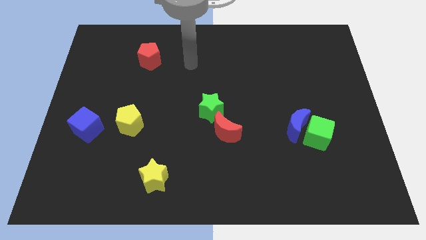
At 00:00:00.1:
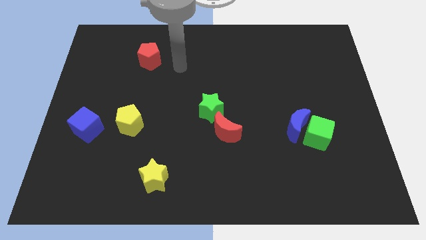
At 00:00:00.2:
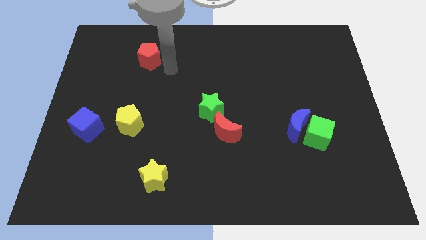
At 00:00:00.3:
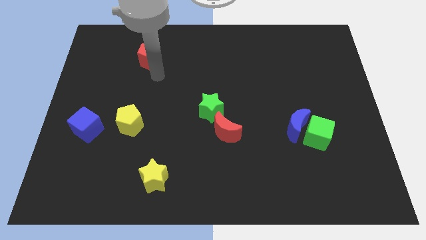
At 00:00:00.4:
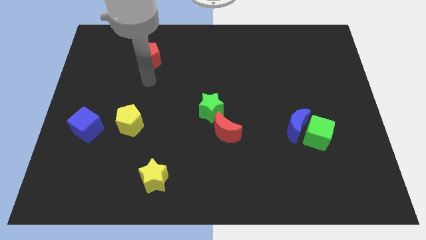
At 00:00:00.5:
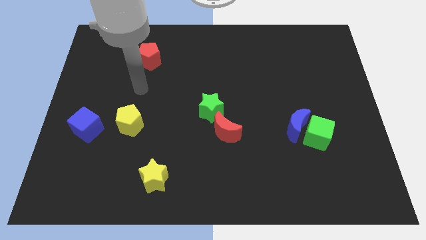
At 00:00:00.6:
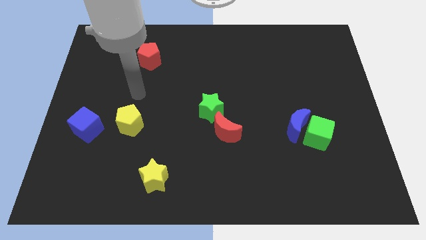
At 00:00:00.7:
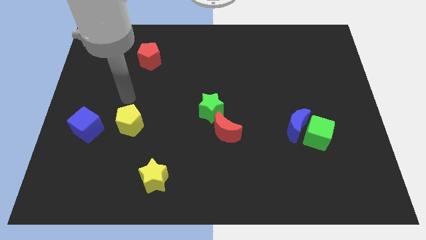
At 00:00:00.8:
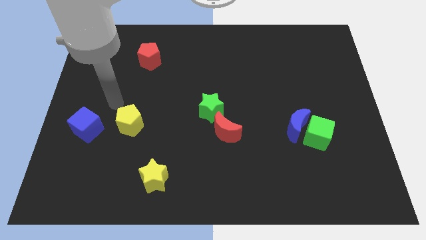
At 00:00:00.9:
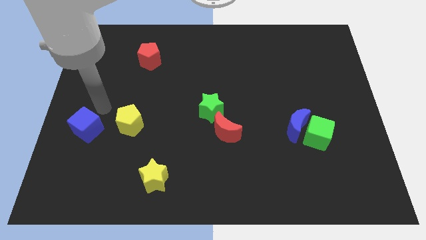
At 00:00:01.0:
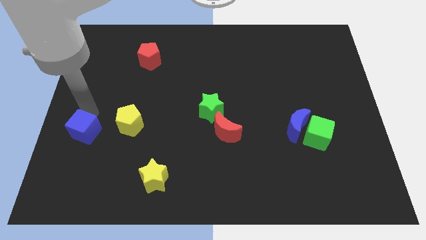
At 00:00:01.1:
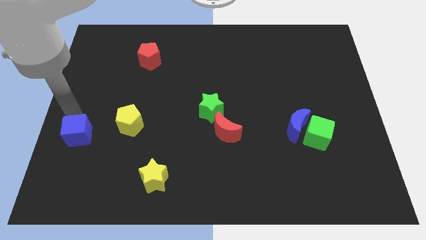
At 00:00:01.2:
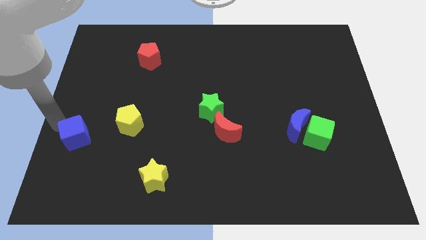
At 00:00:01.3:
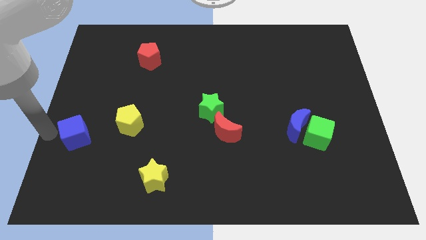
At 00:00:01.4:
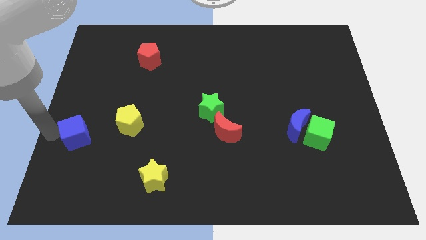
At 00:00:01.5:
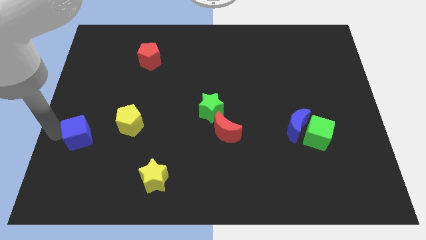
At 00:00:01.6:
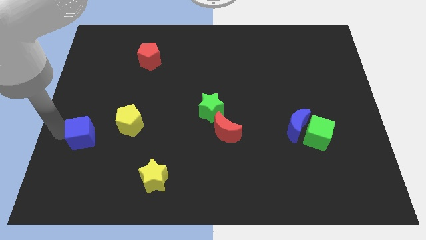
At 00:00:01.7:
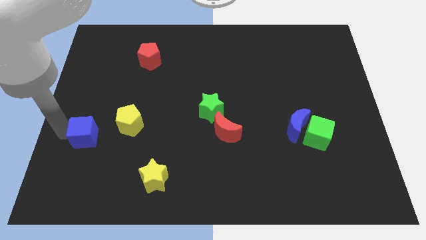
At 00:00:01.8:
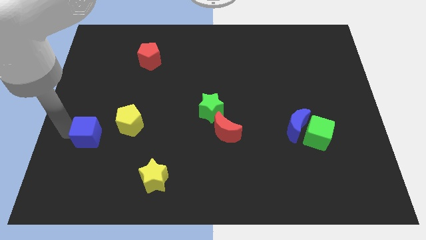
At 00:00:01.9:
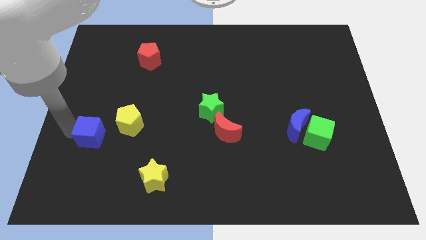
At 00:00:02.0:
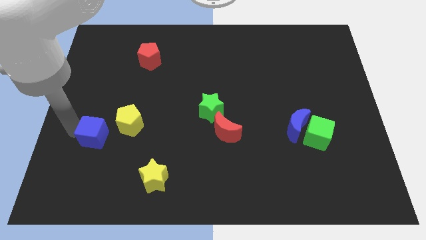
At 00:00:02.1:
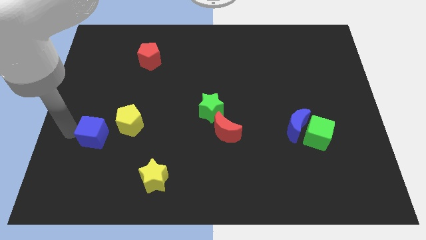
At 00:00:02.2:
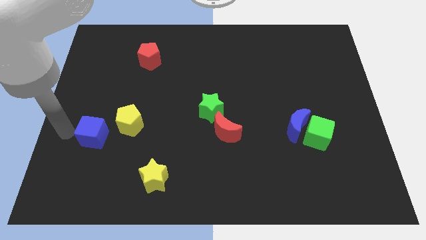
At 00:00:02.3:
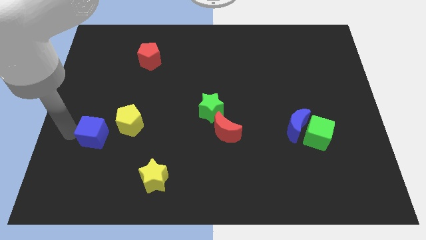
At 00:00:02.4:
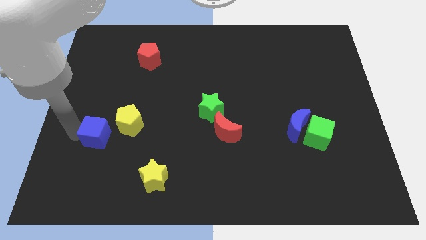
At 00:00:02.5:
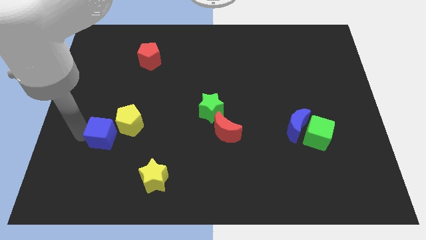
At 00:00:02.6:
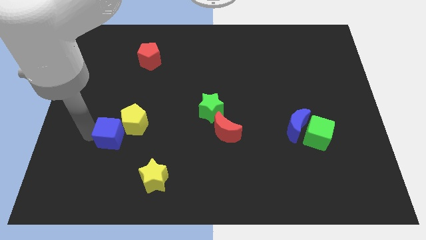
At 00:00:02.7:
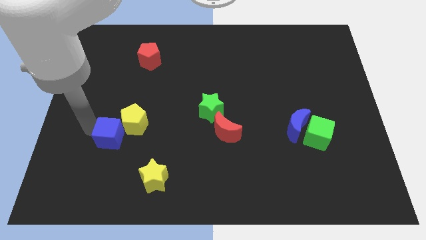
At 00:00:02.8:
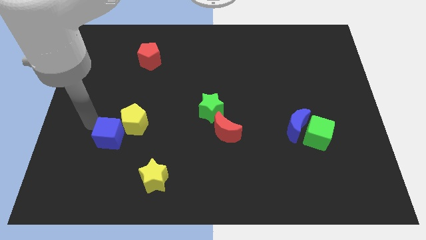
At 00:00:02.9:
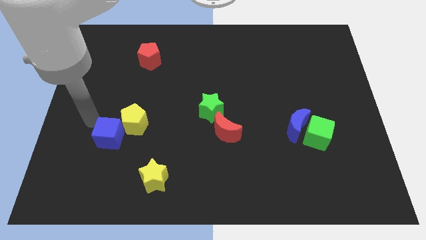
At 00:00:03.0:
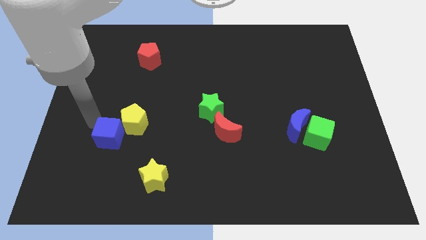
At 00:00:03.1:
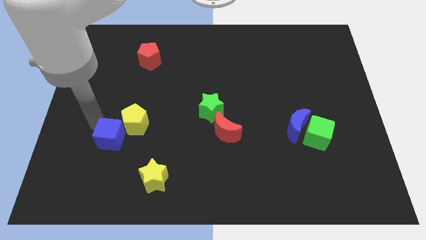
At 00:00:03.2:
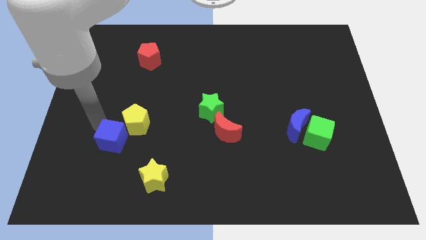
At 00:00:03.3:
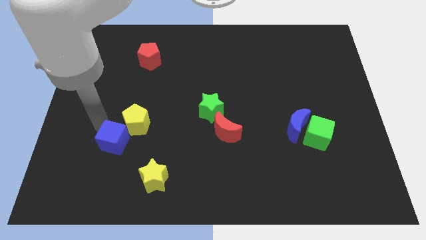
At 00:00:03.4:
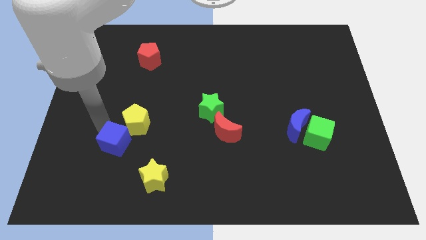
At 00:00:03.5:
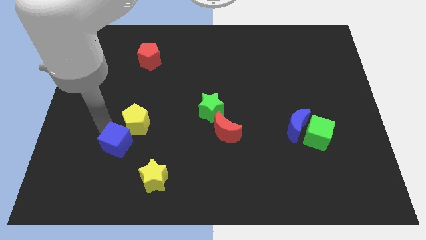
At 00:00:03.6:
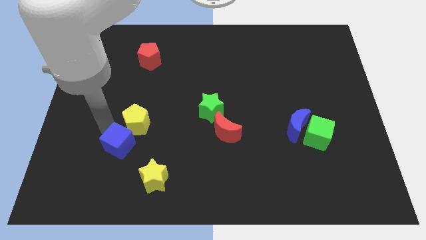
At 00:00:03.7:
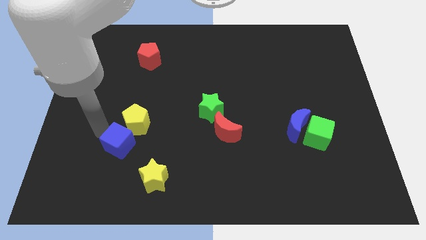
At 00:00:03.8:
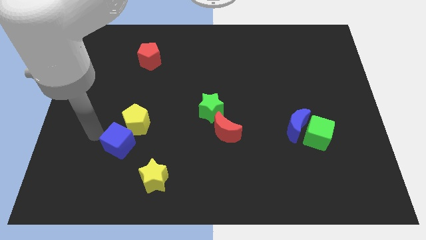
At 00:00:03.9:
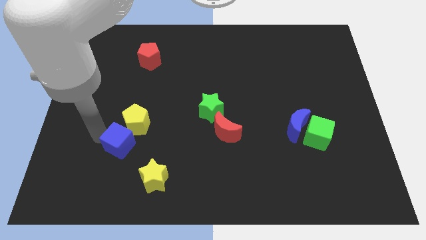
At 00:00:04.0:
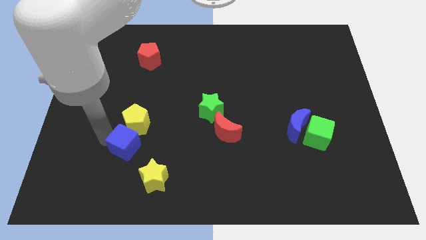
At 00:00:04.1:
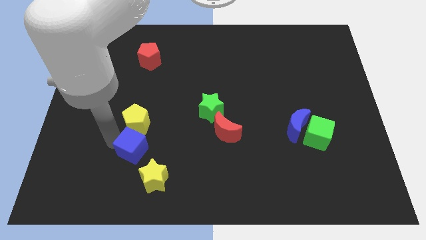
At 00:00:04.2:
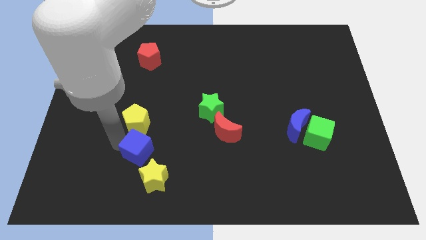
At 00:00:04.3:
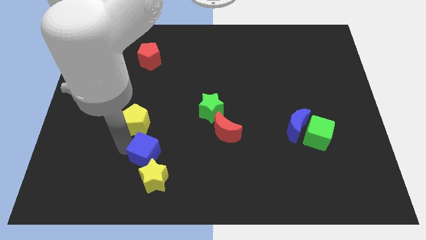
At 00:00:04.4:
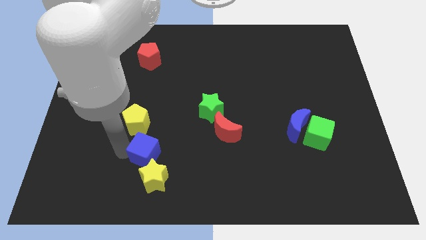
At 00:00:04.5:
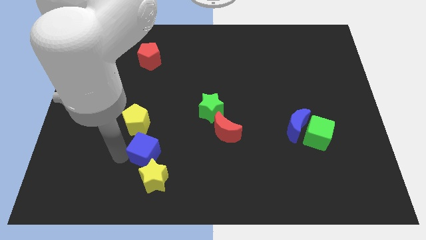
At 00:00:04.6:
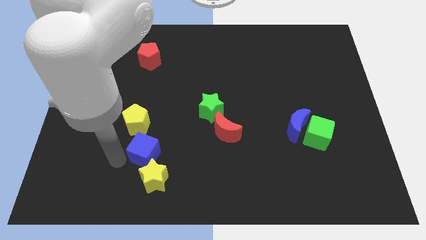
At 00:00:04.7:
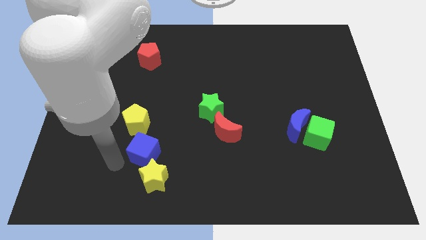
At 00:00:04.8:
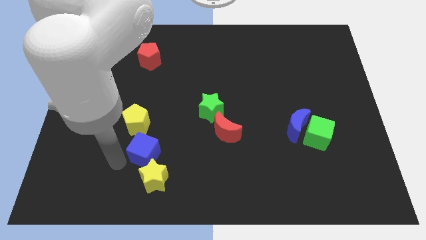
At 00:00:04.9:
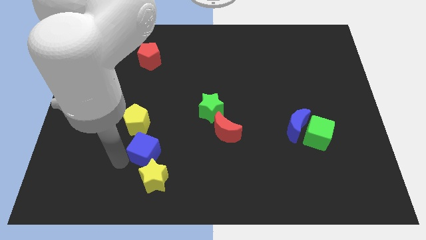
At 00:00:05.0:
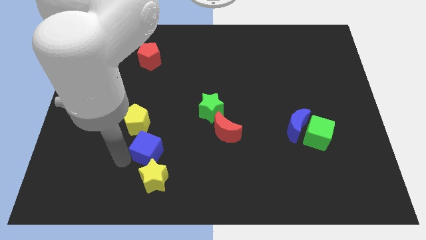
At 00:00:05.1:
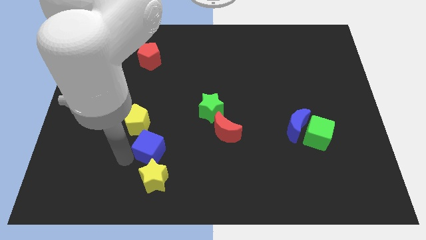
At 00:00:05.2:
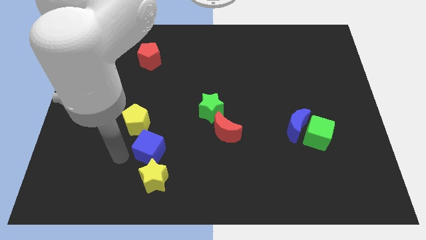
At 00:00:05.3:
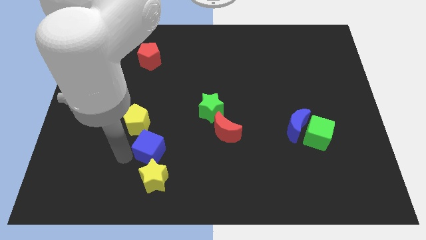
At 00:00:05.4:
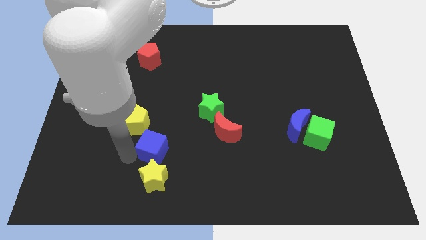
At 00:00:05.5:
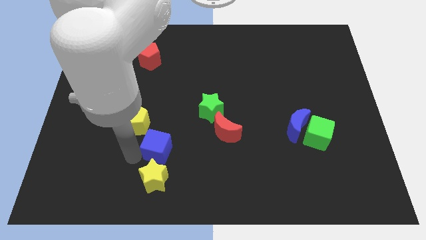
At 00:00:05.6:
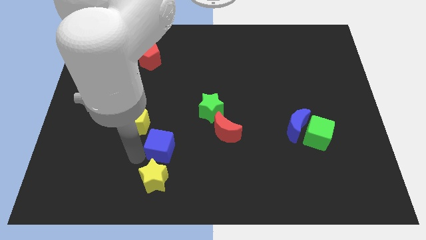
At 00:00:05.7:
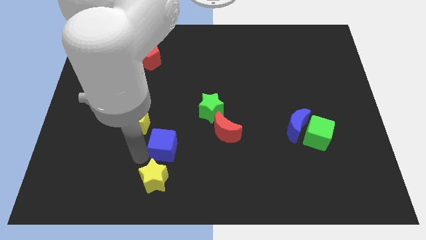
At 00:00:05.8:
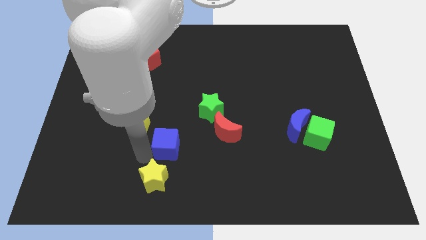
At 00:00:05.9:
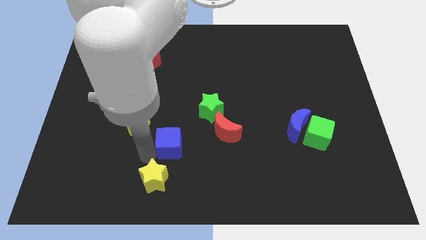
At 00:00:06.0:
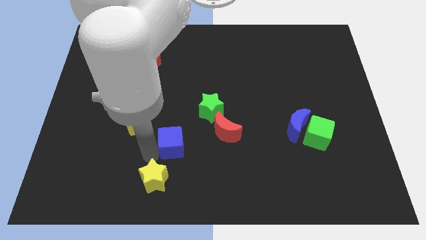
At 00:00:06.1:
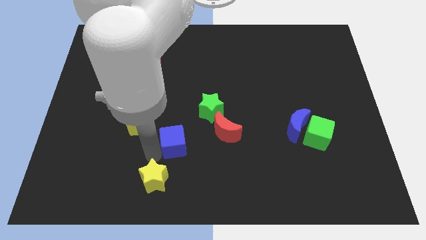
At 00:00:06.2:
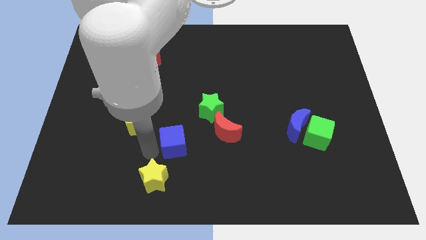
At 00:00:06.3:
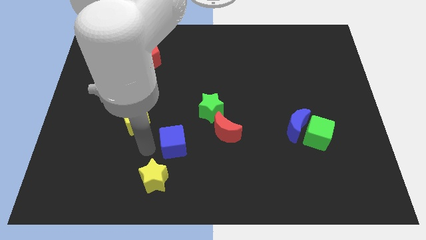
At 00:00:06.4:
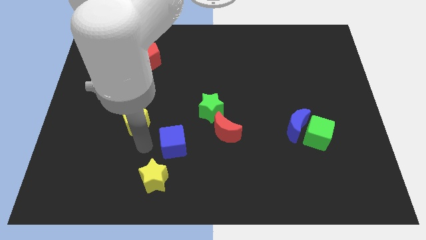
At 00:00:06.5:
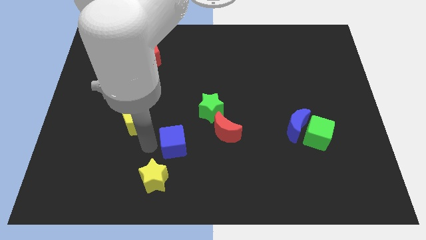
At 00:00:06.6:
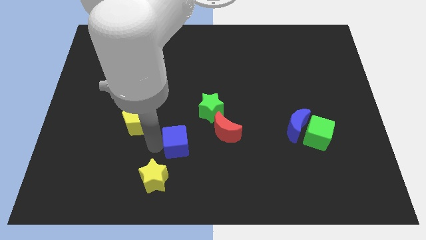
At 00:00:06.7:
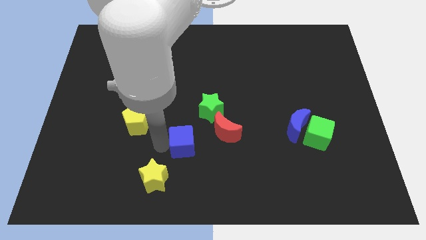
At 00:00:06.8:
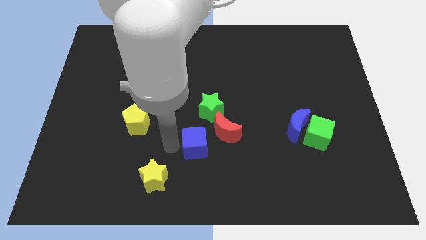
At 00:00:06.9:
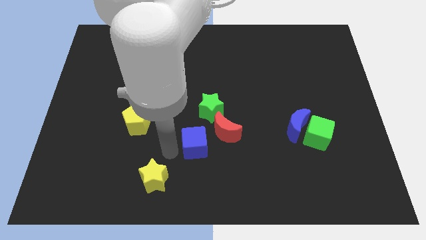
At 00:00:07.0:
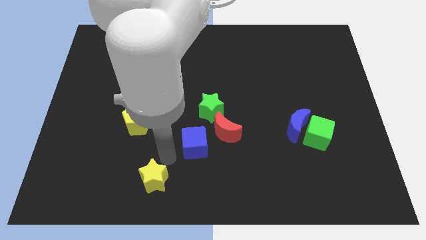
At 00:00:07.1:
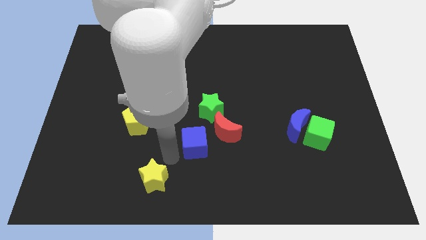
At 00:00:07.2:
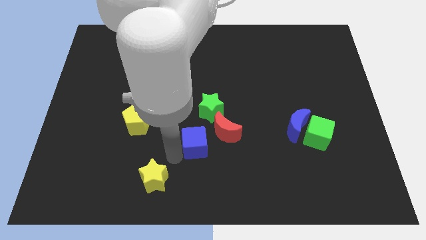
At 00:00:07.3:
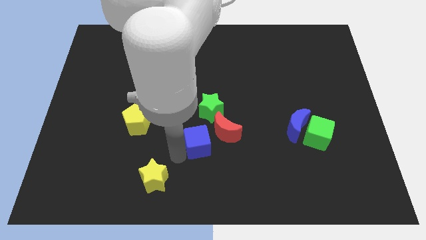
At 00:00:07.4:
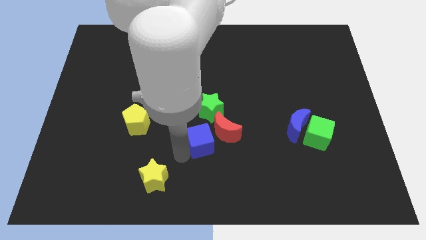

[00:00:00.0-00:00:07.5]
put the blue cube next to the red moon

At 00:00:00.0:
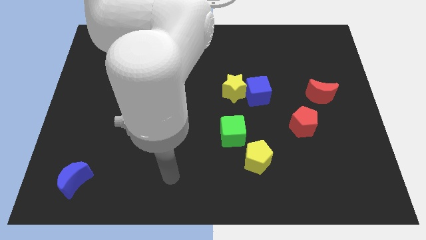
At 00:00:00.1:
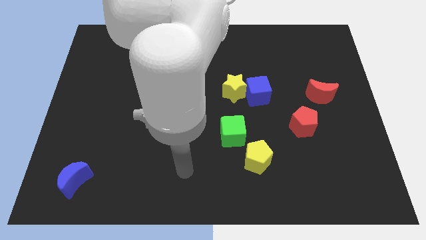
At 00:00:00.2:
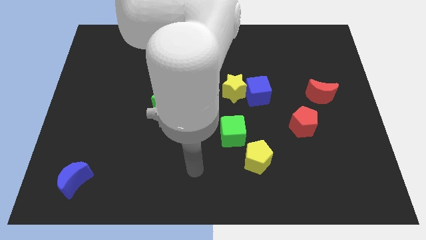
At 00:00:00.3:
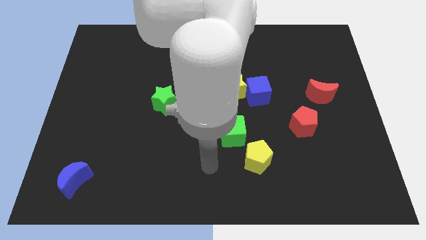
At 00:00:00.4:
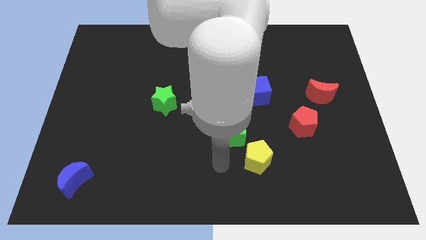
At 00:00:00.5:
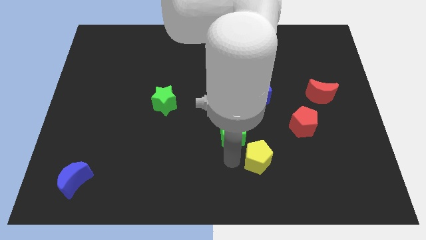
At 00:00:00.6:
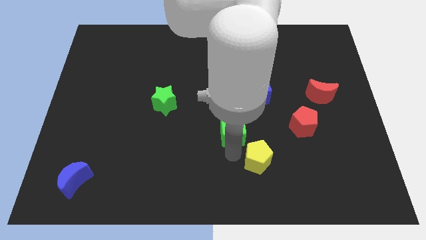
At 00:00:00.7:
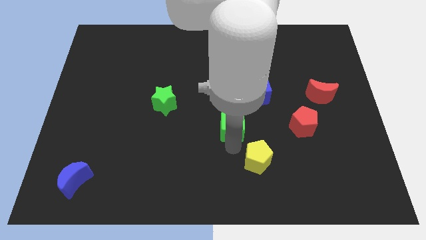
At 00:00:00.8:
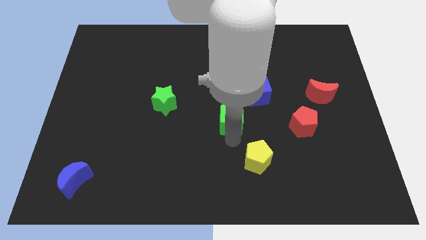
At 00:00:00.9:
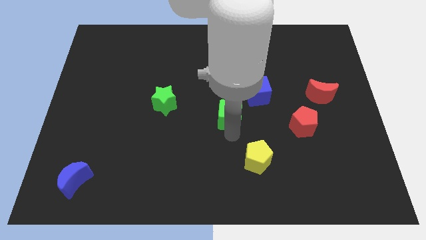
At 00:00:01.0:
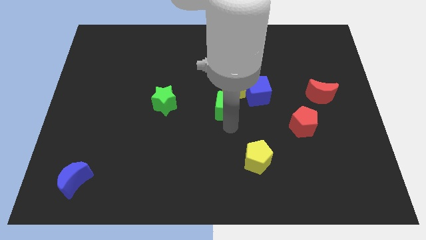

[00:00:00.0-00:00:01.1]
push the green cube next to the yellow star
